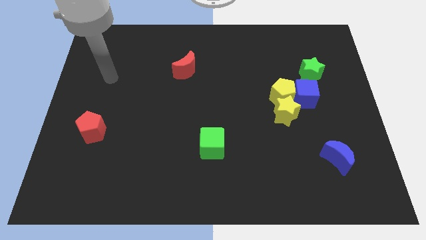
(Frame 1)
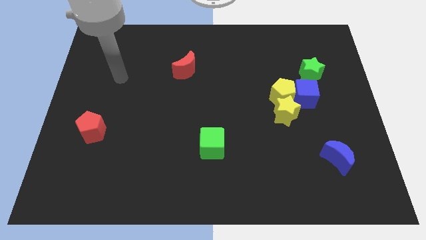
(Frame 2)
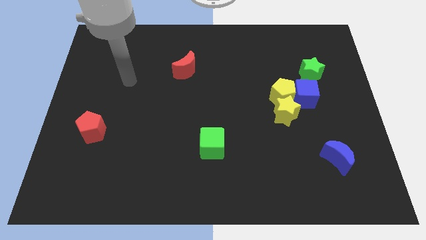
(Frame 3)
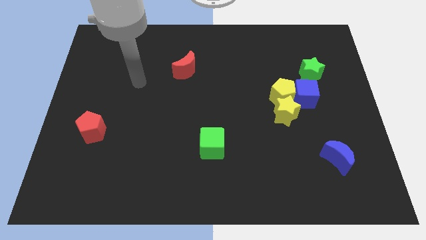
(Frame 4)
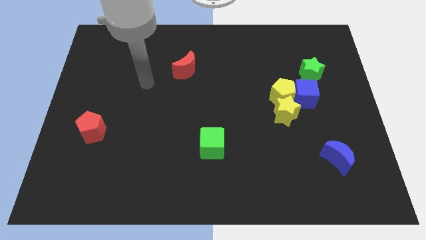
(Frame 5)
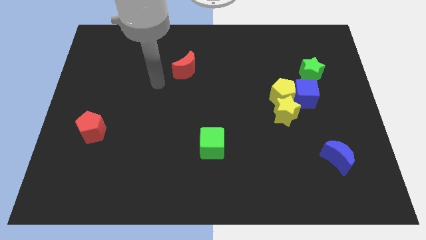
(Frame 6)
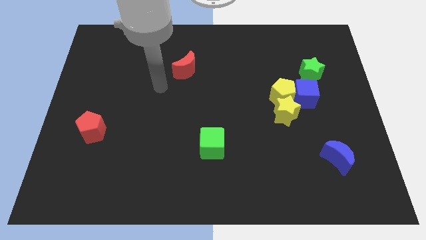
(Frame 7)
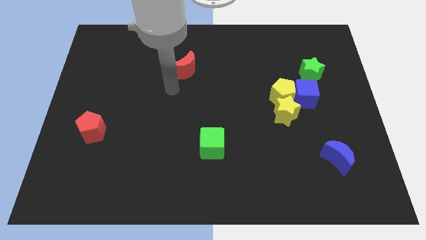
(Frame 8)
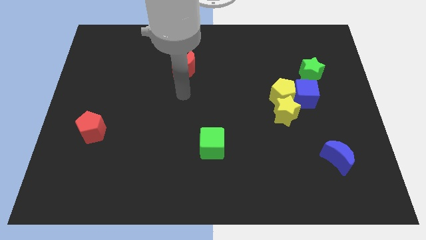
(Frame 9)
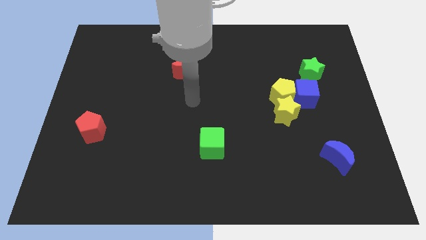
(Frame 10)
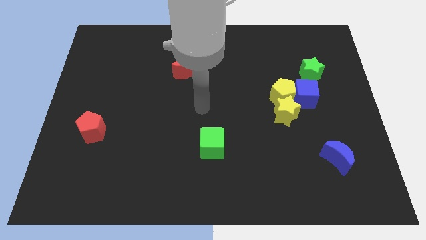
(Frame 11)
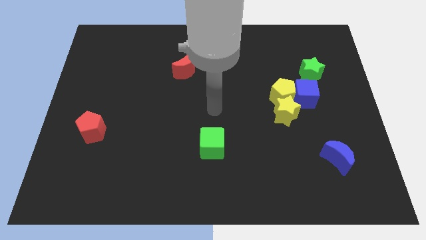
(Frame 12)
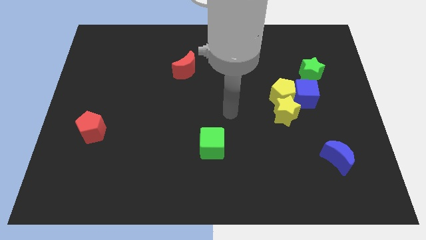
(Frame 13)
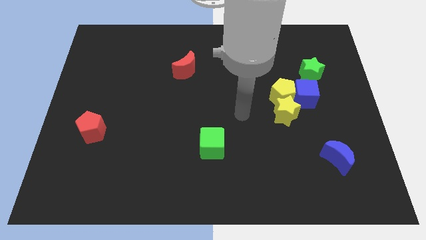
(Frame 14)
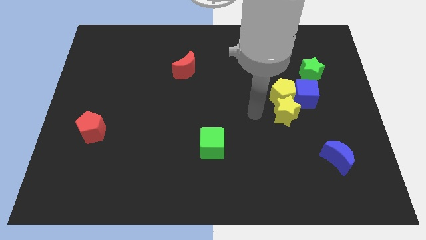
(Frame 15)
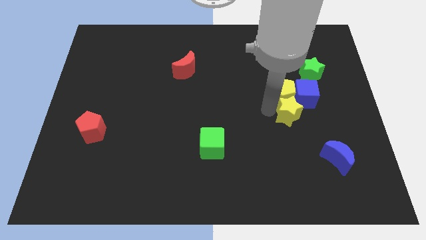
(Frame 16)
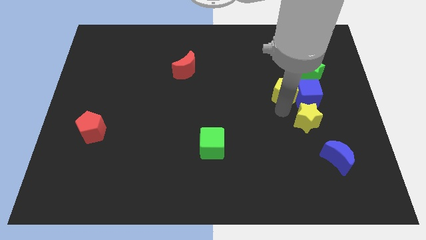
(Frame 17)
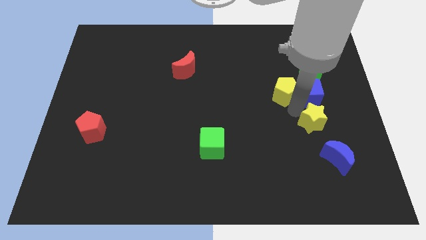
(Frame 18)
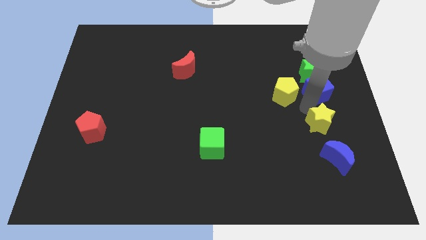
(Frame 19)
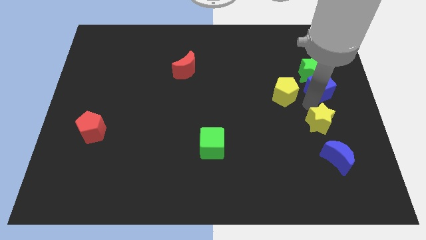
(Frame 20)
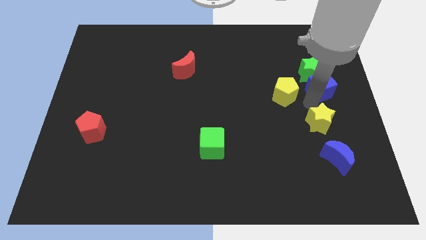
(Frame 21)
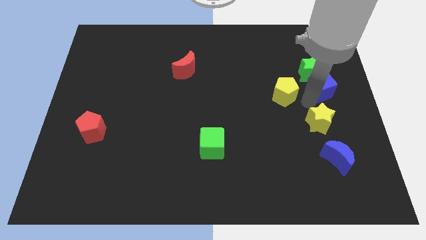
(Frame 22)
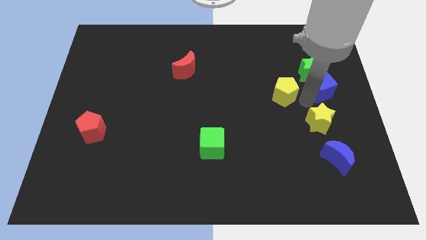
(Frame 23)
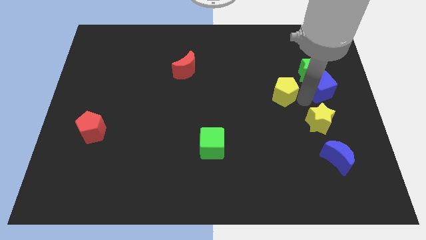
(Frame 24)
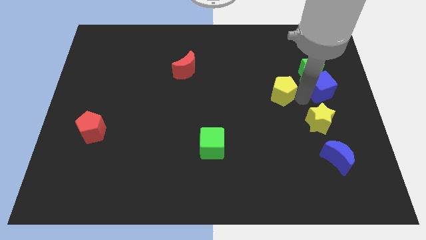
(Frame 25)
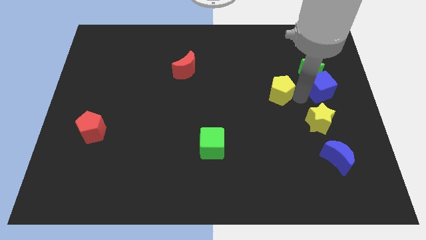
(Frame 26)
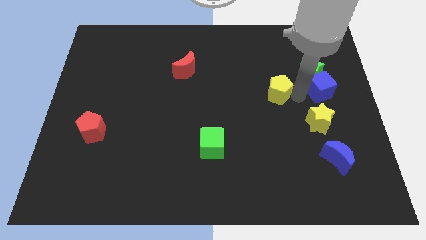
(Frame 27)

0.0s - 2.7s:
move the yellow pentagon away from the blue cube and yellow star

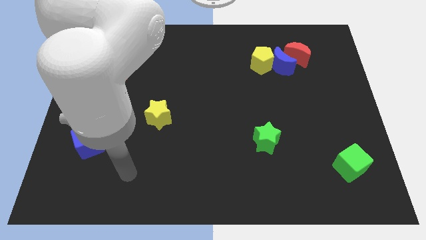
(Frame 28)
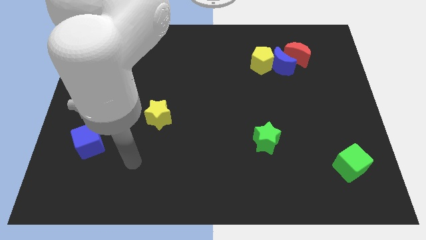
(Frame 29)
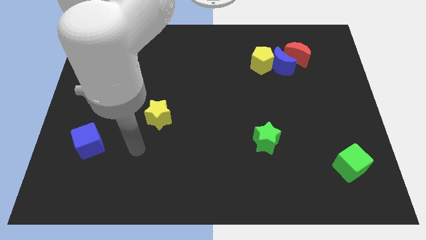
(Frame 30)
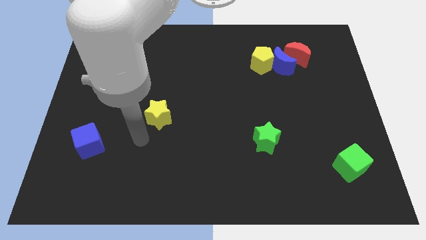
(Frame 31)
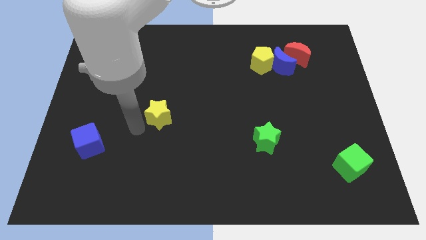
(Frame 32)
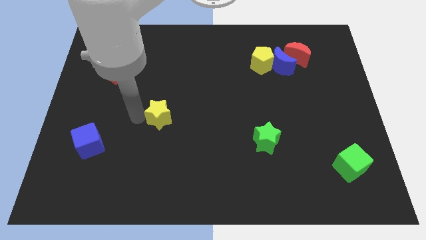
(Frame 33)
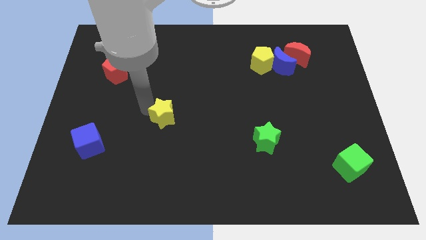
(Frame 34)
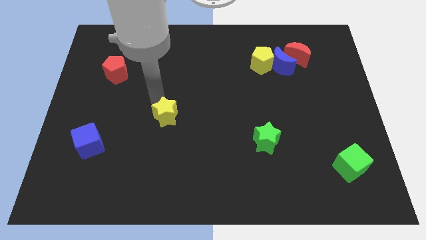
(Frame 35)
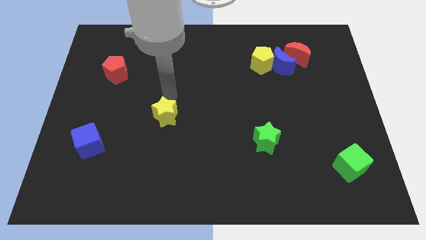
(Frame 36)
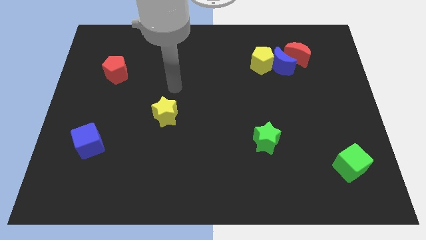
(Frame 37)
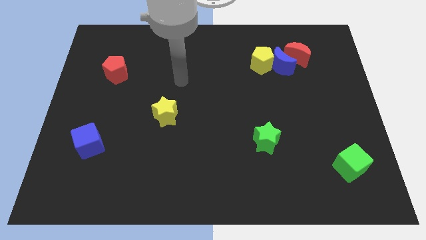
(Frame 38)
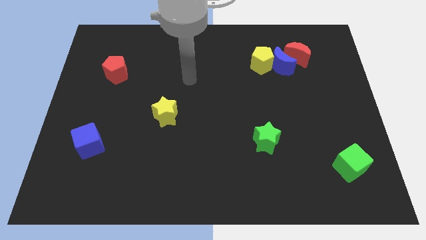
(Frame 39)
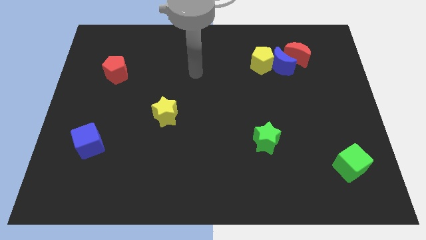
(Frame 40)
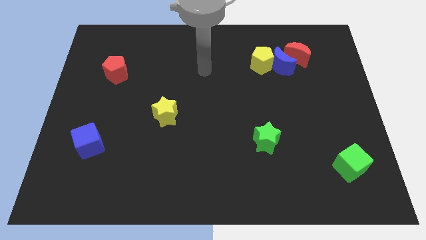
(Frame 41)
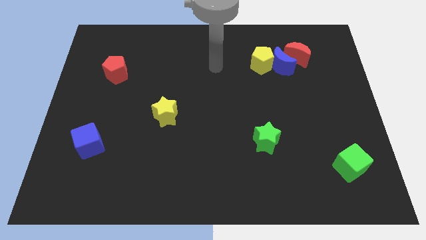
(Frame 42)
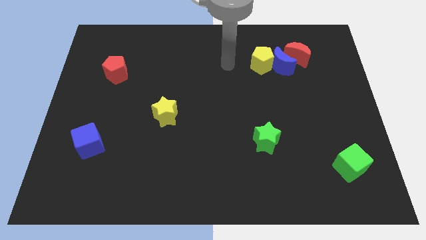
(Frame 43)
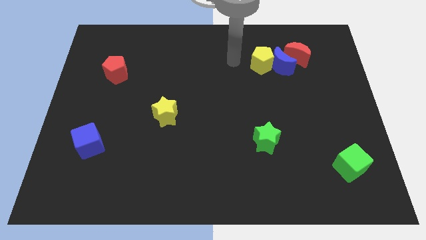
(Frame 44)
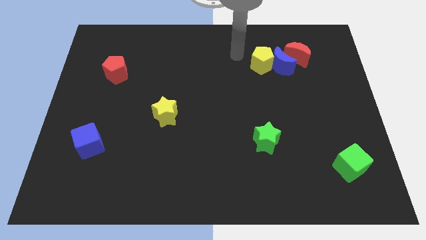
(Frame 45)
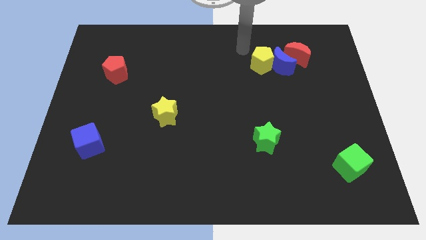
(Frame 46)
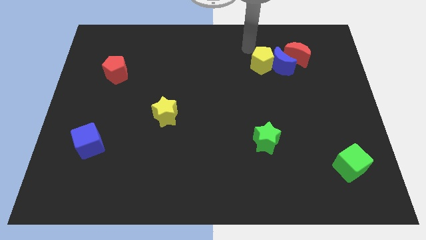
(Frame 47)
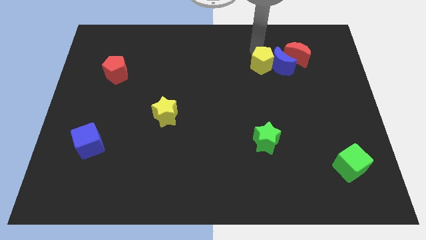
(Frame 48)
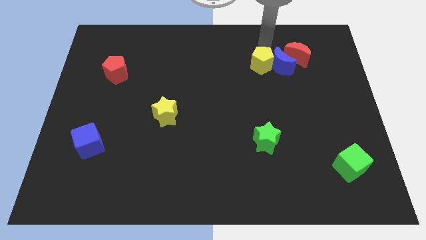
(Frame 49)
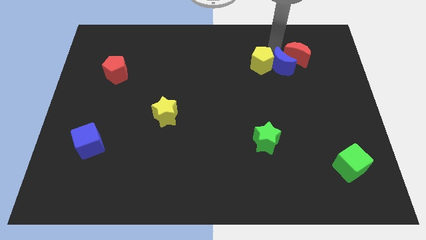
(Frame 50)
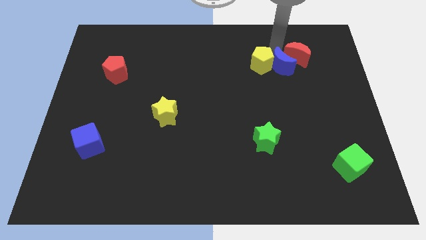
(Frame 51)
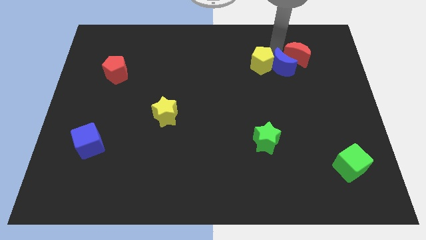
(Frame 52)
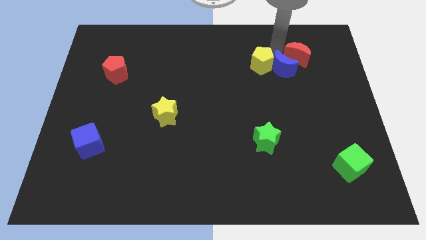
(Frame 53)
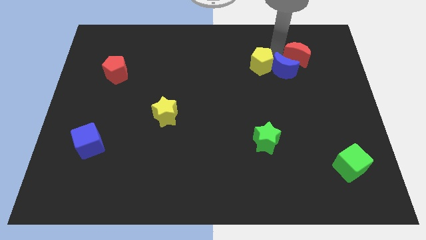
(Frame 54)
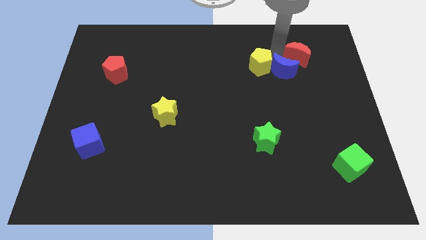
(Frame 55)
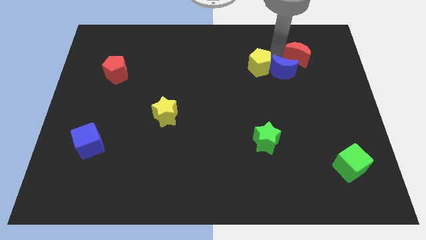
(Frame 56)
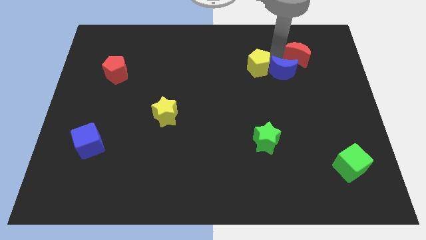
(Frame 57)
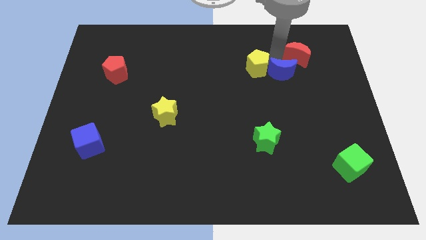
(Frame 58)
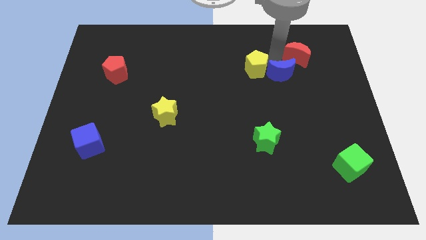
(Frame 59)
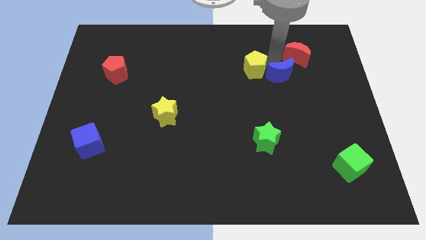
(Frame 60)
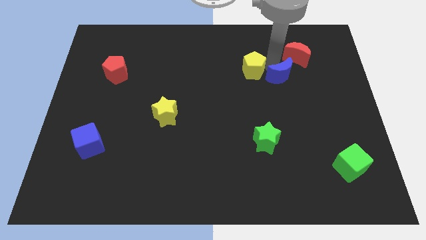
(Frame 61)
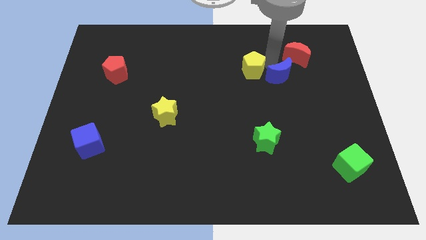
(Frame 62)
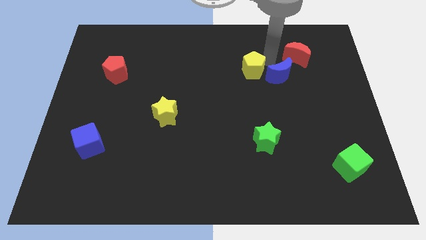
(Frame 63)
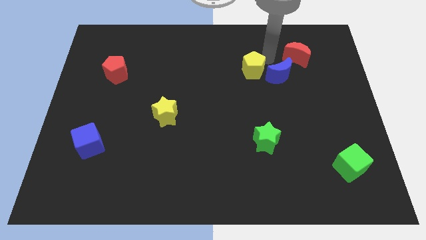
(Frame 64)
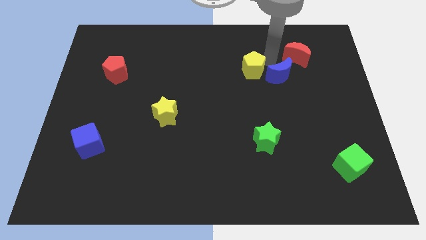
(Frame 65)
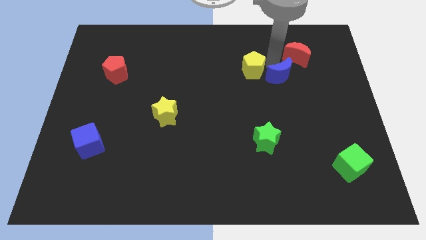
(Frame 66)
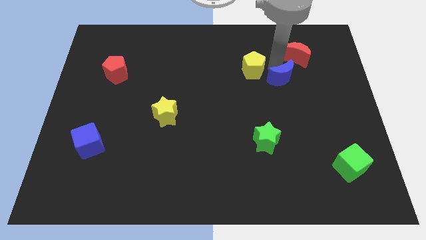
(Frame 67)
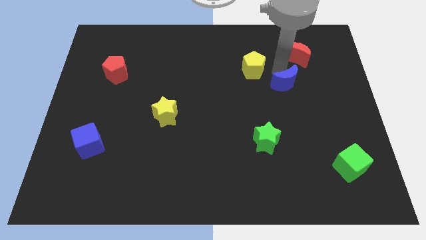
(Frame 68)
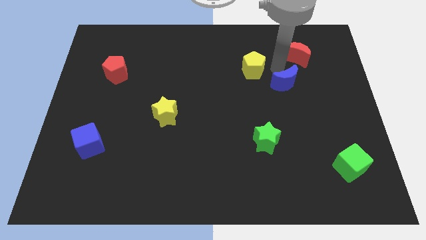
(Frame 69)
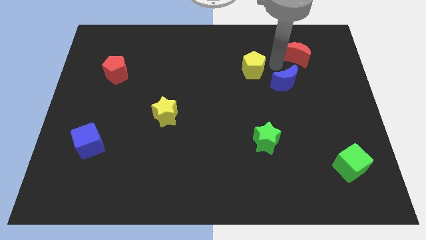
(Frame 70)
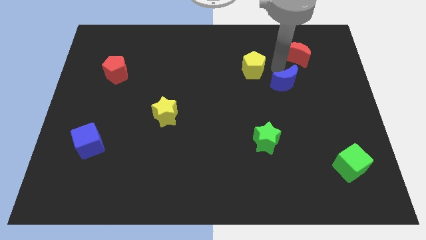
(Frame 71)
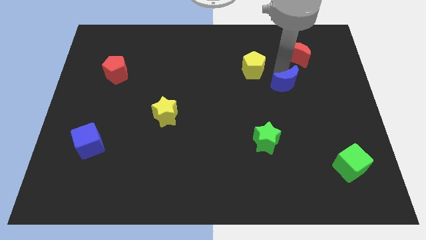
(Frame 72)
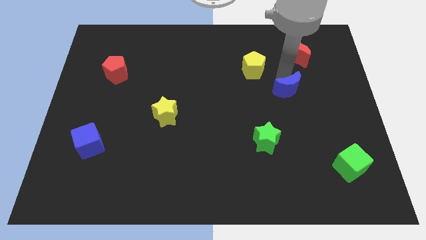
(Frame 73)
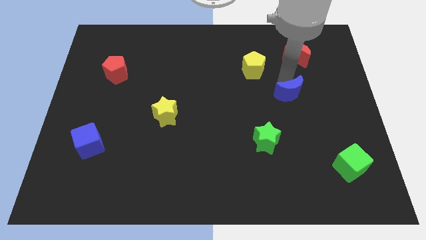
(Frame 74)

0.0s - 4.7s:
pull the blue moon apart from the yellow pentagon and red moon

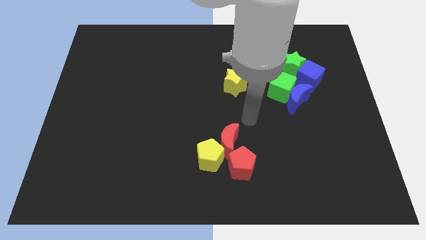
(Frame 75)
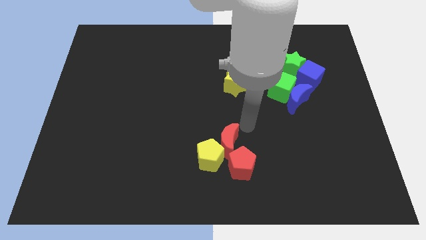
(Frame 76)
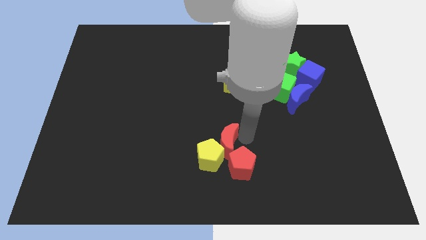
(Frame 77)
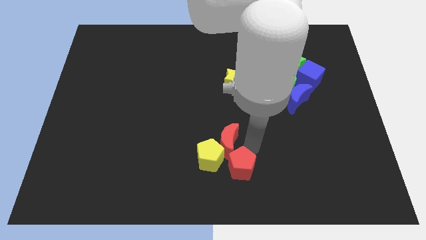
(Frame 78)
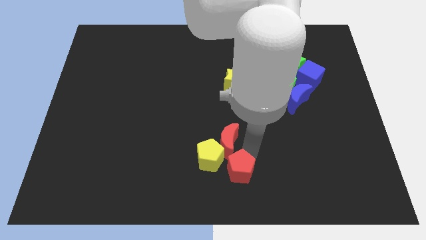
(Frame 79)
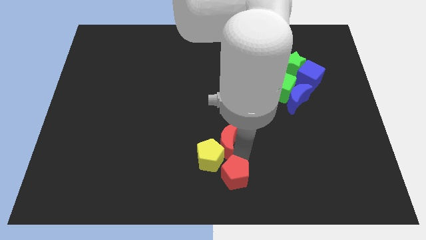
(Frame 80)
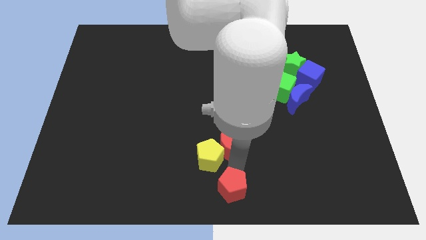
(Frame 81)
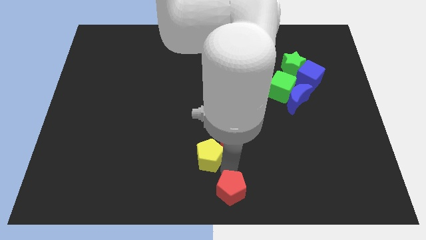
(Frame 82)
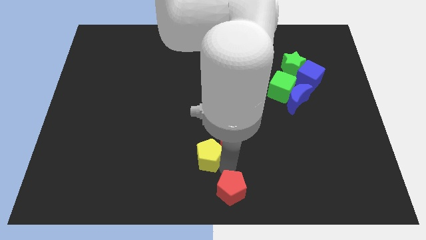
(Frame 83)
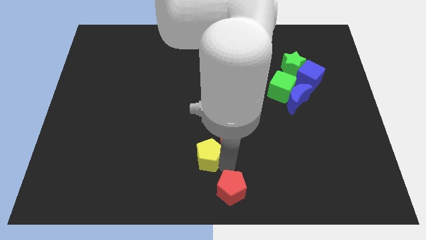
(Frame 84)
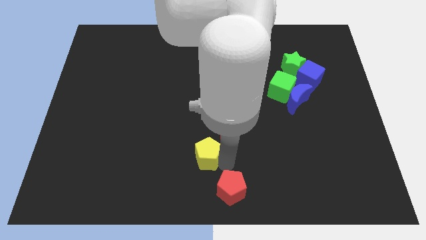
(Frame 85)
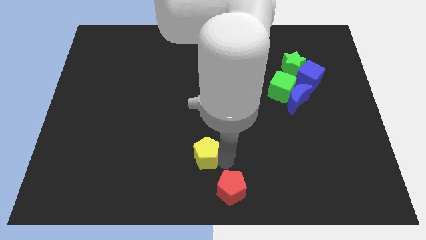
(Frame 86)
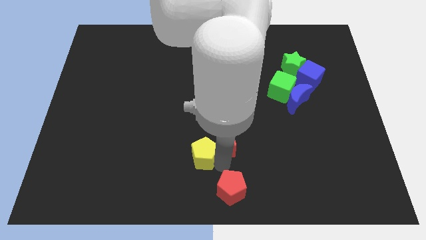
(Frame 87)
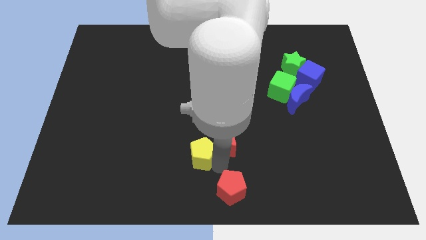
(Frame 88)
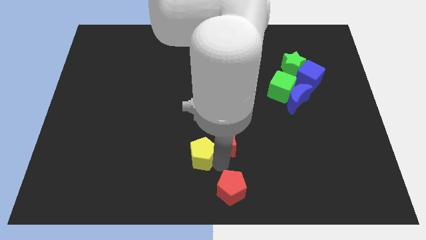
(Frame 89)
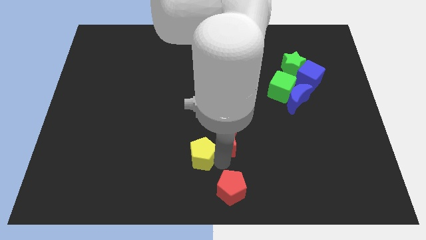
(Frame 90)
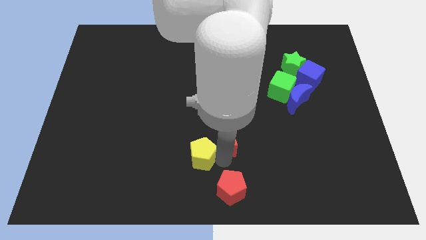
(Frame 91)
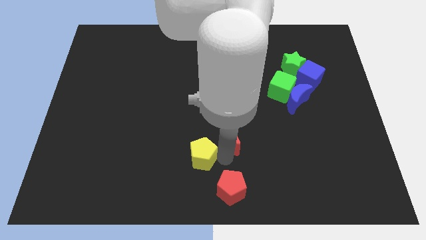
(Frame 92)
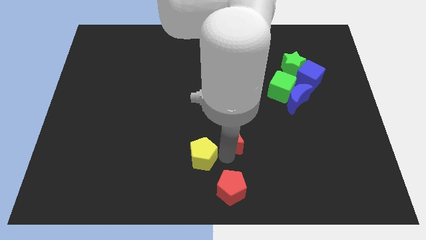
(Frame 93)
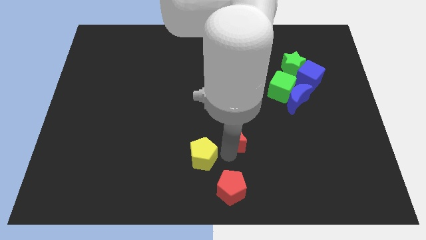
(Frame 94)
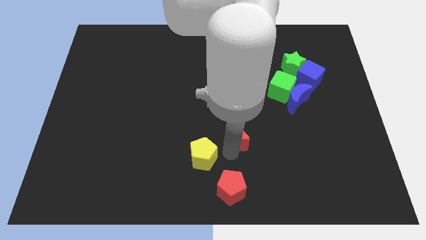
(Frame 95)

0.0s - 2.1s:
pull the red moon apart from the yellow pentagon and red pentagon

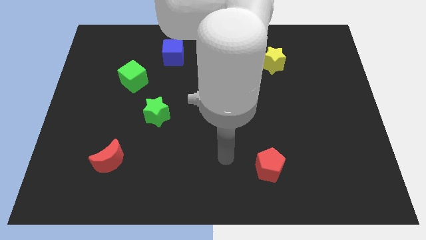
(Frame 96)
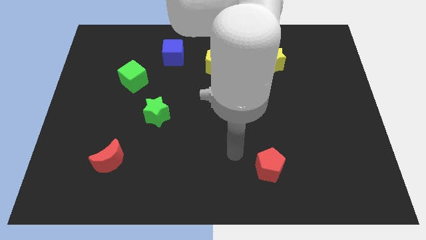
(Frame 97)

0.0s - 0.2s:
move the blue moon away from the yellow pentagon
